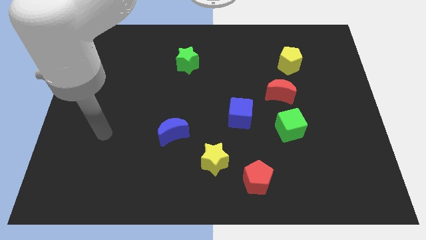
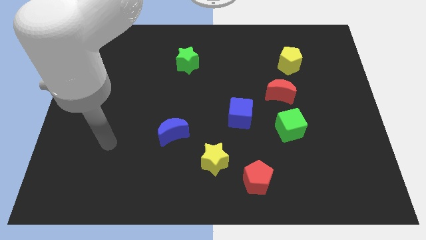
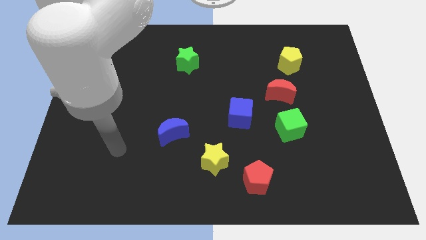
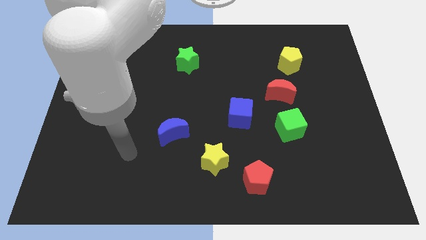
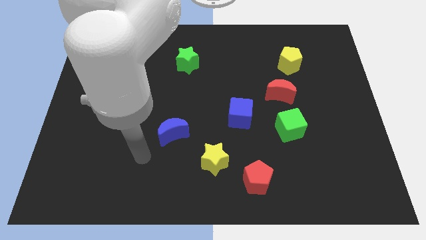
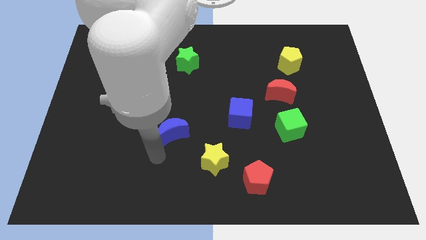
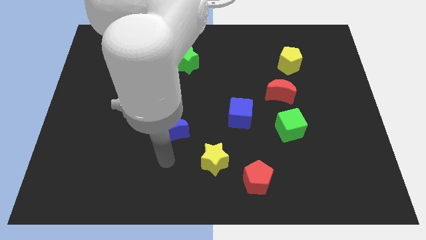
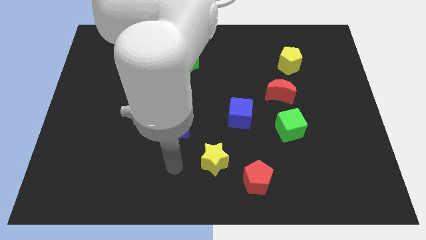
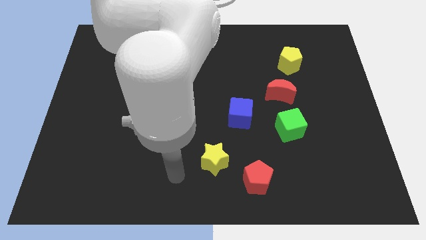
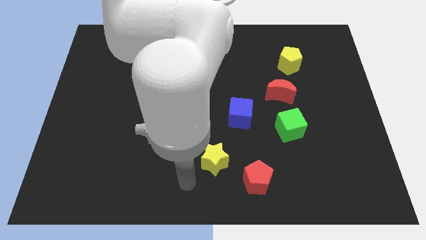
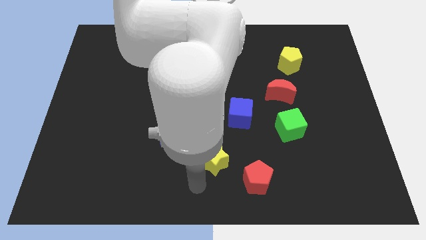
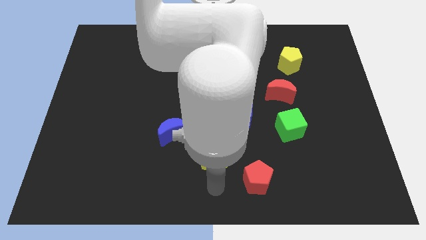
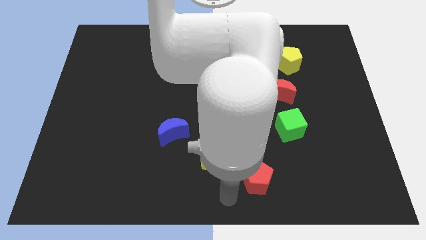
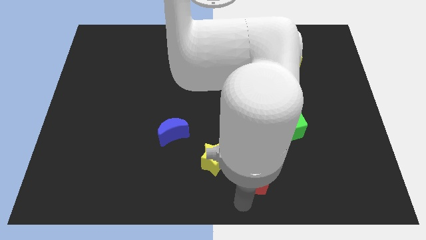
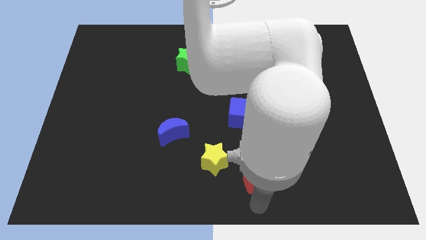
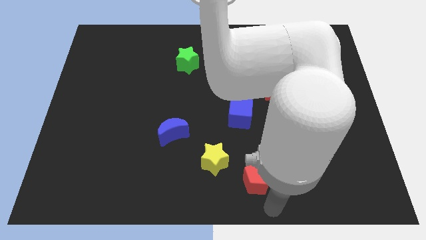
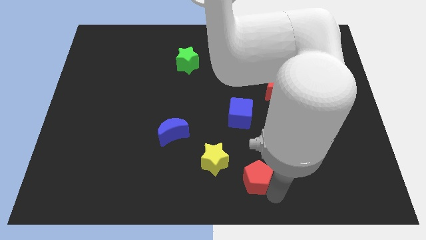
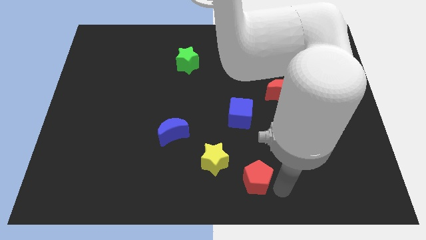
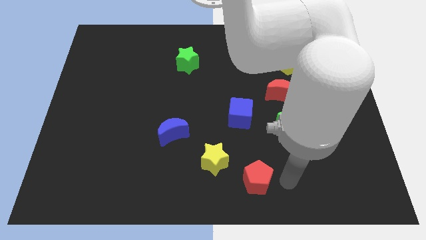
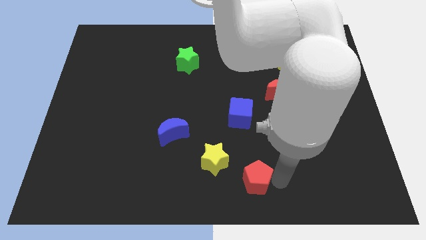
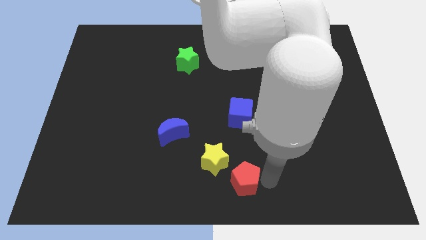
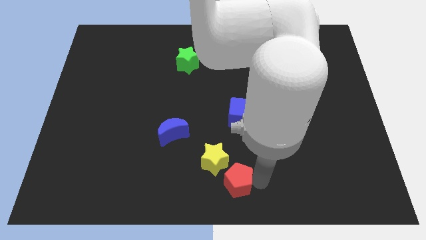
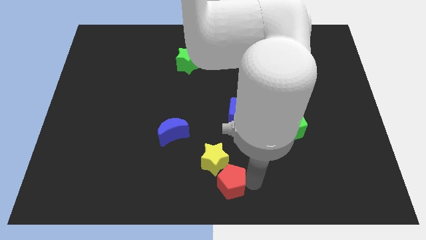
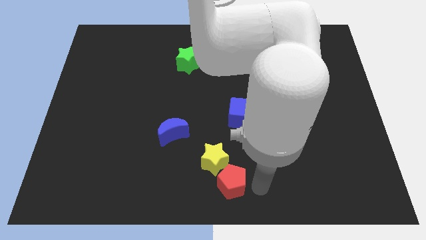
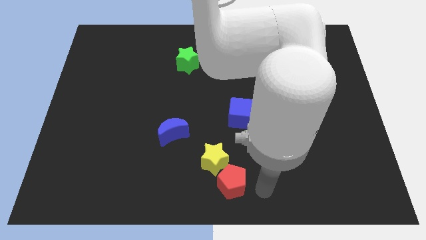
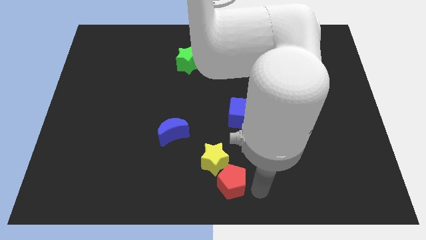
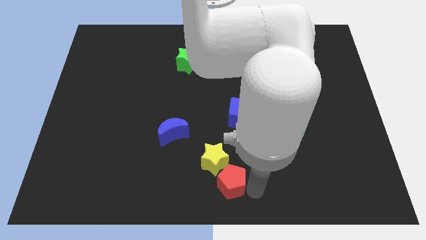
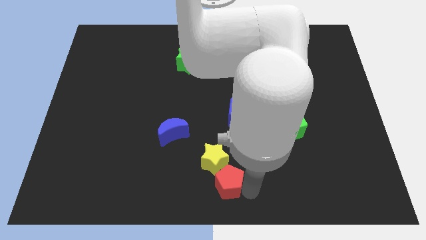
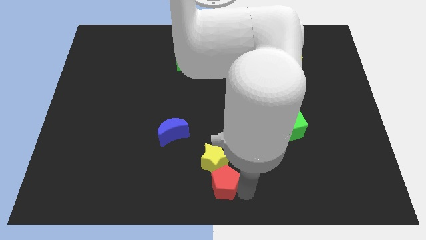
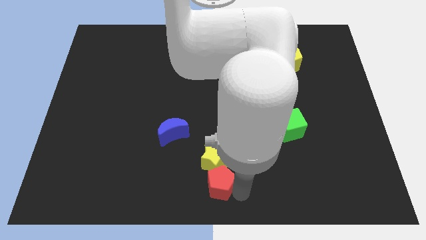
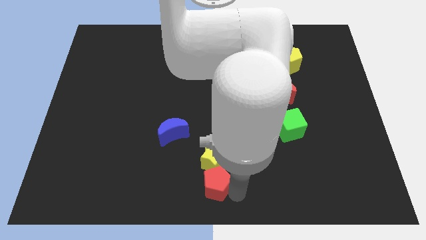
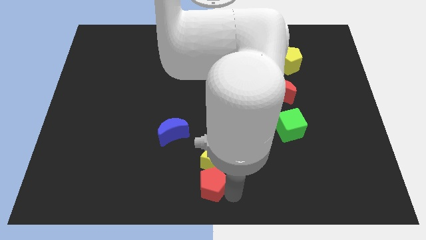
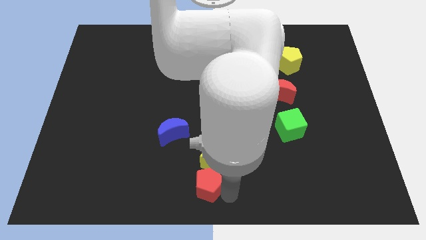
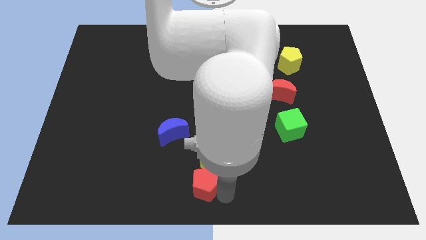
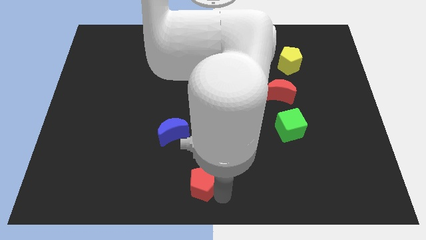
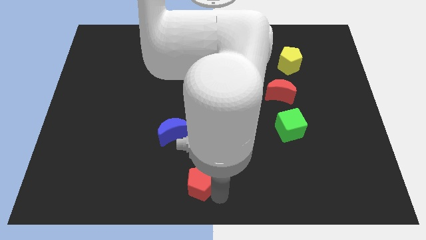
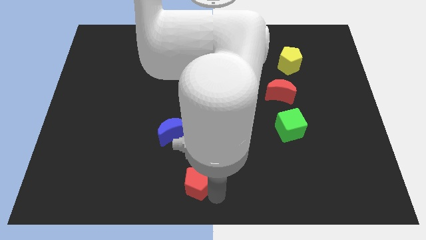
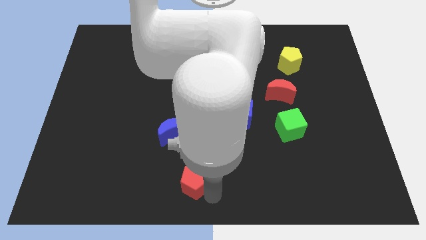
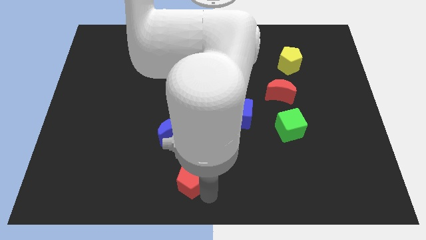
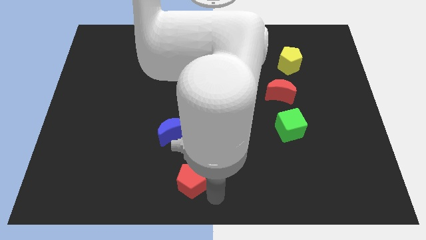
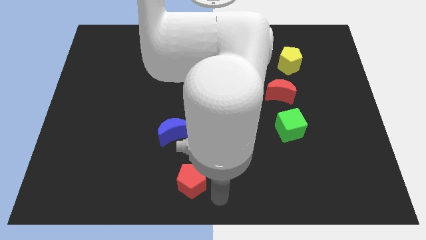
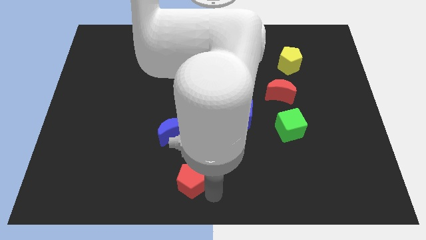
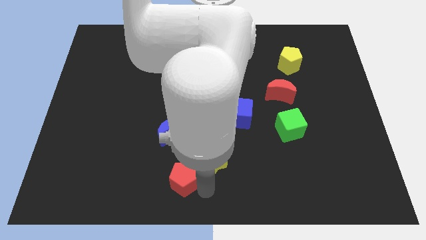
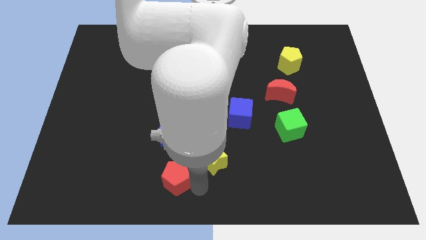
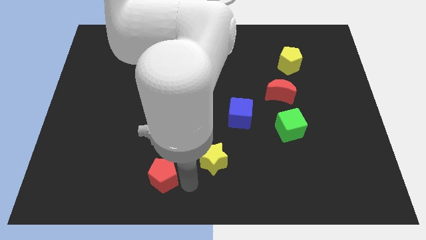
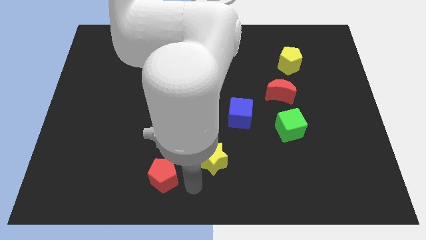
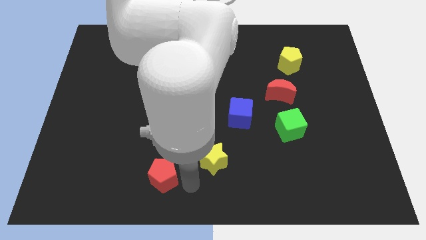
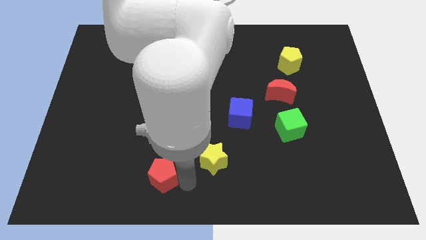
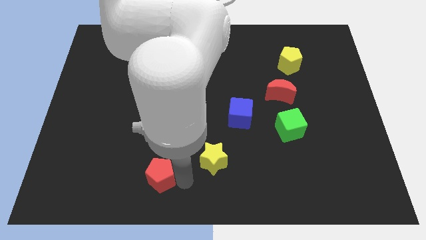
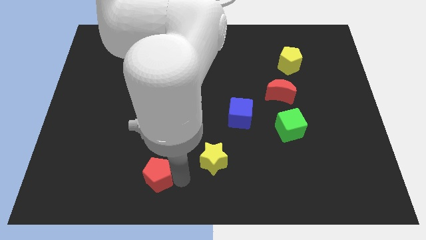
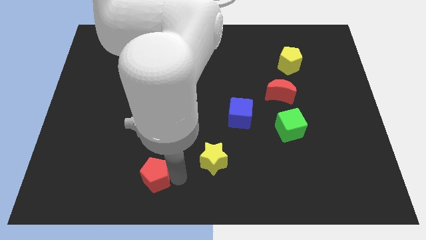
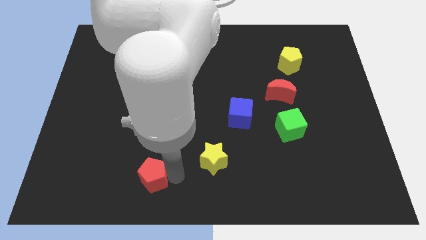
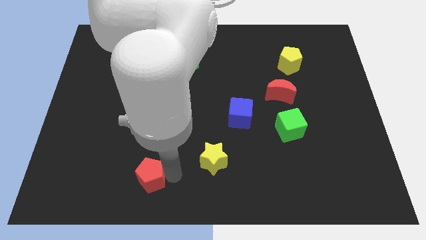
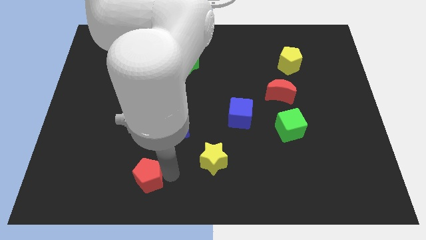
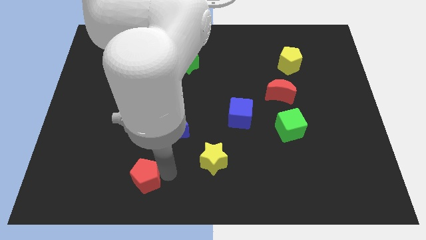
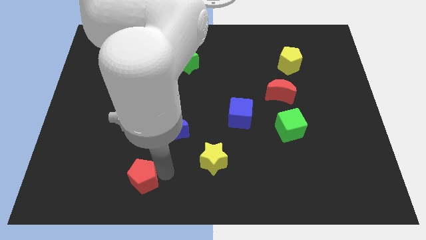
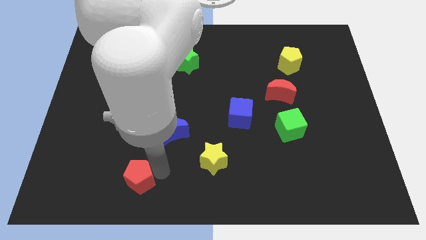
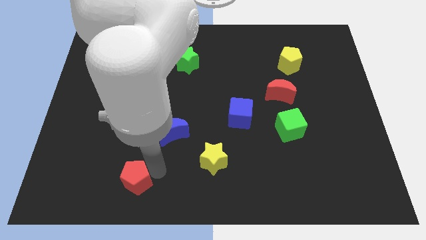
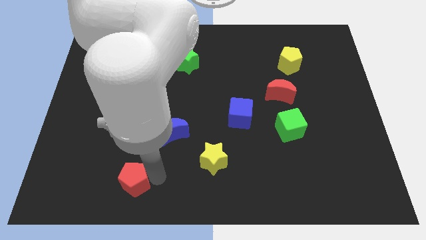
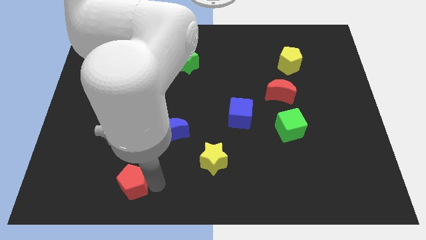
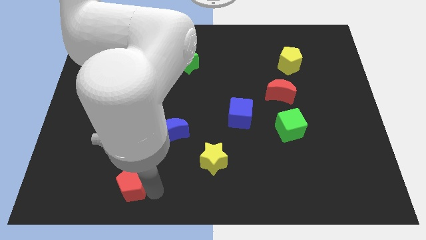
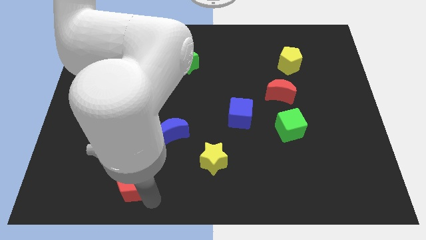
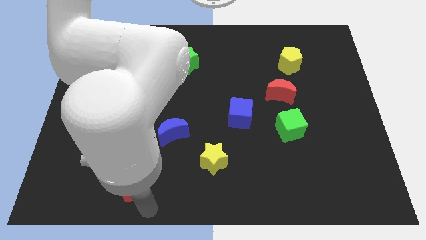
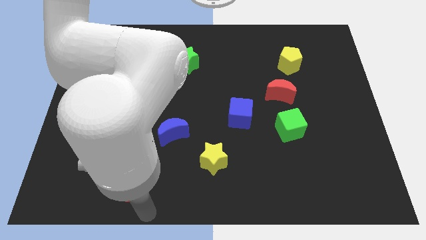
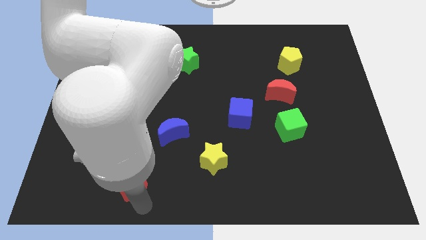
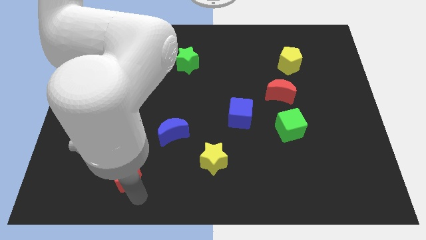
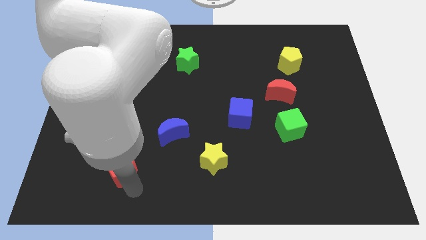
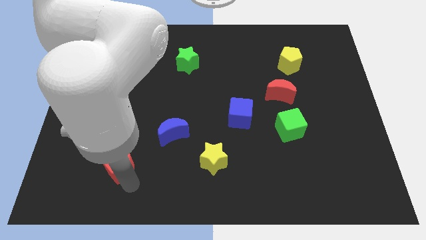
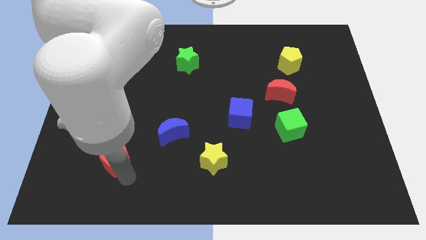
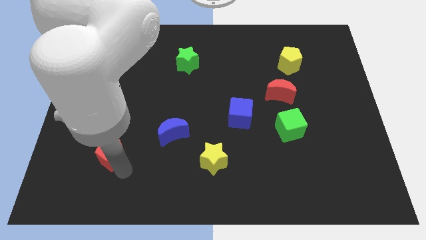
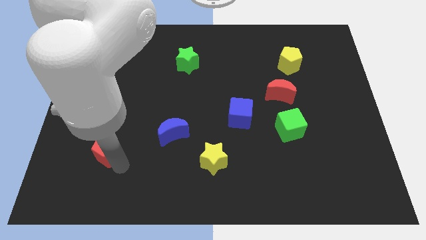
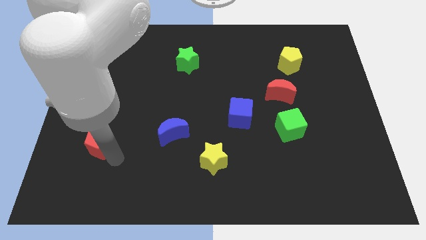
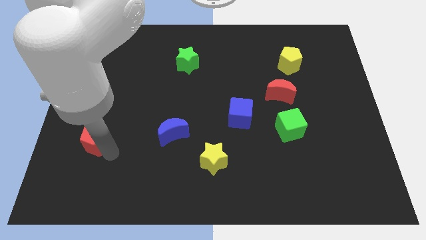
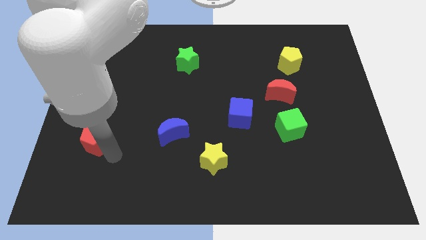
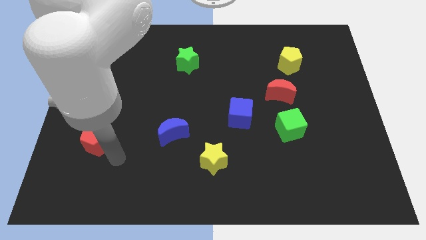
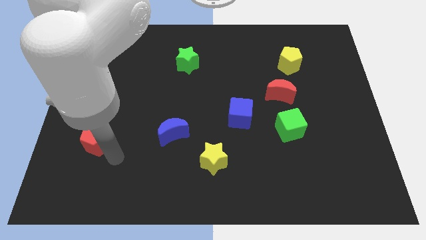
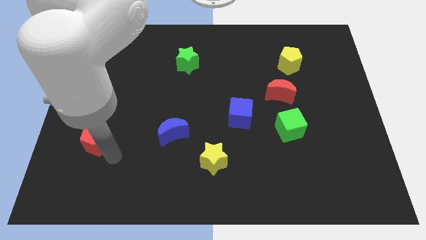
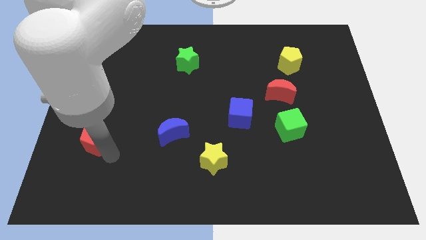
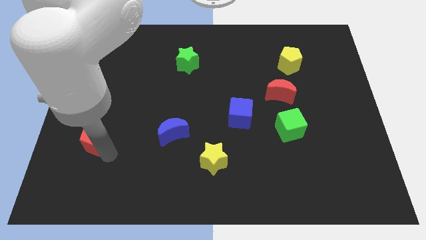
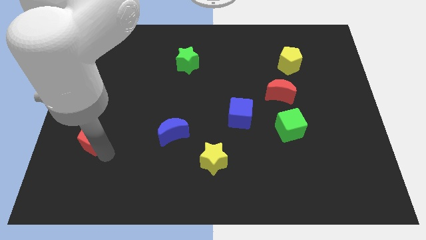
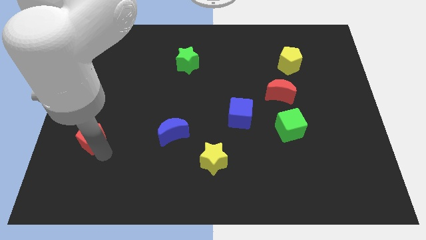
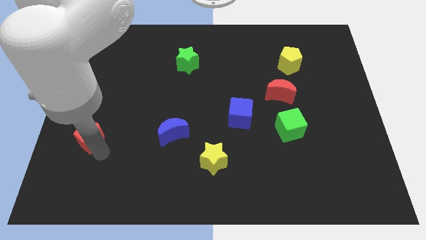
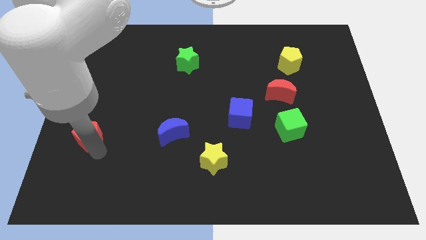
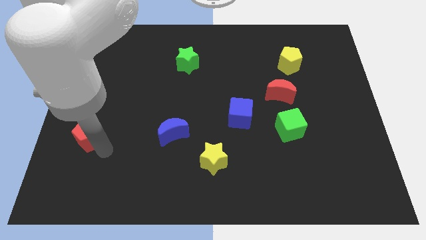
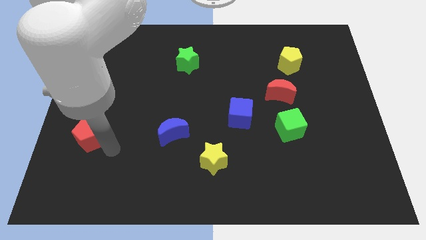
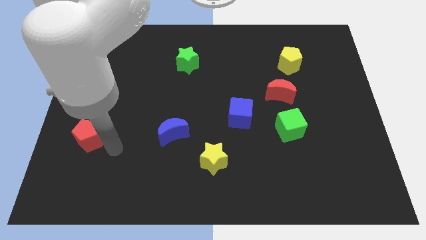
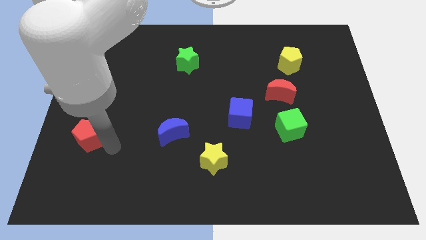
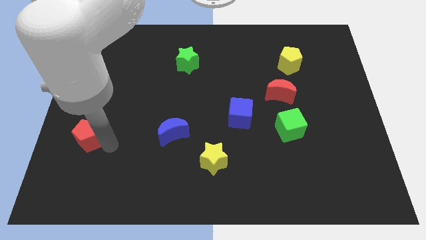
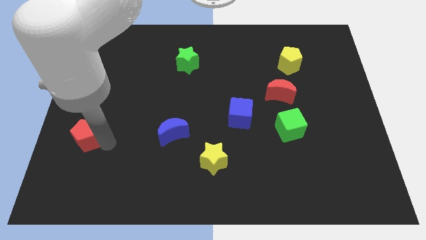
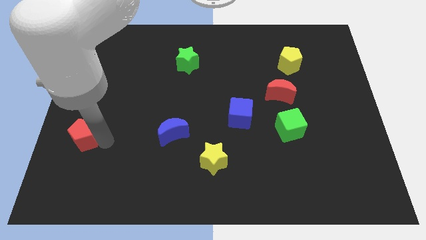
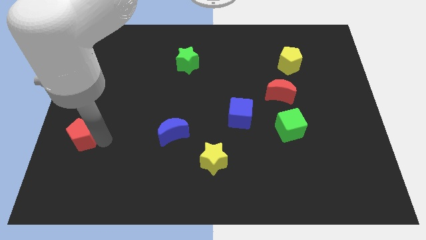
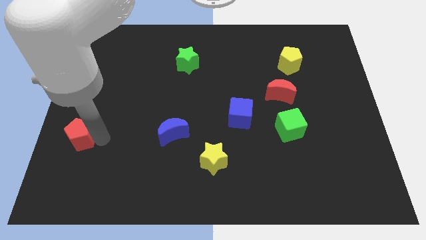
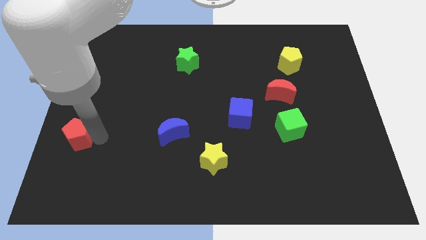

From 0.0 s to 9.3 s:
move the red pentagon to the left side
